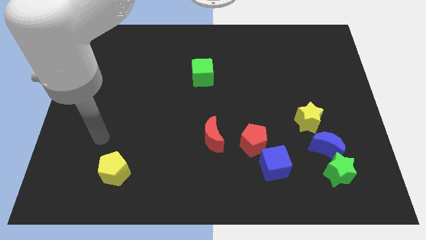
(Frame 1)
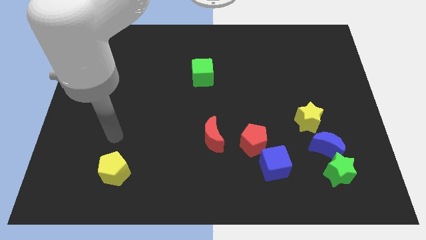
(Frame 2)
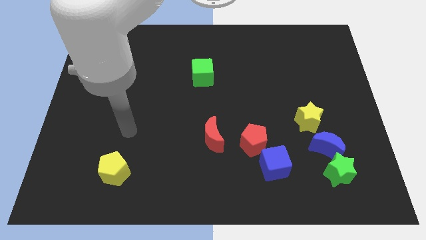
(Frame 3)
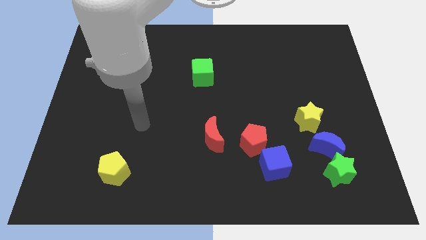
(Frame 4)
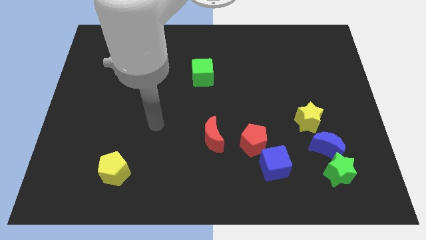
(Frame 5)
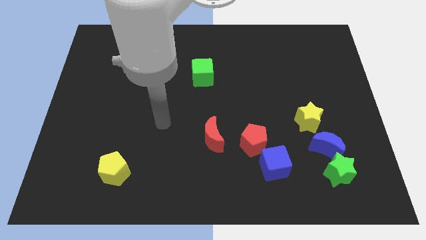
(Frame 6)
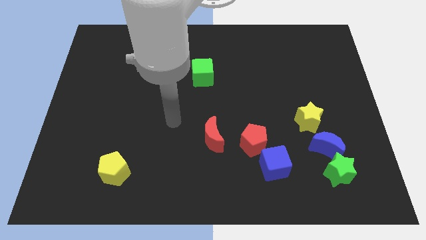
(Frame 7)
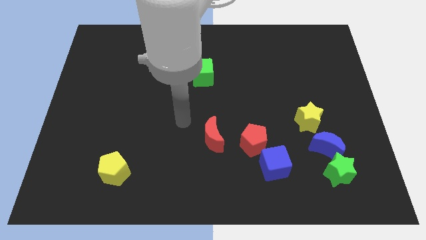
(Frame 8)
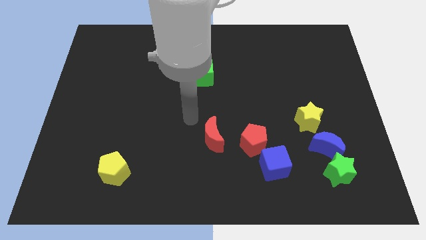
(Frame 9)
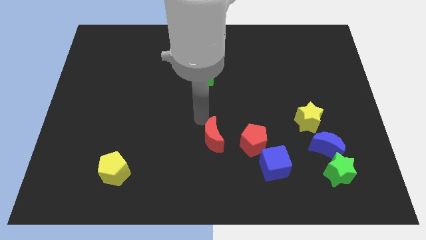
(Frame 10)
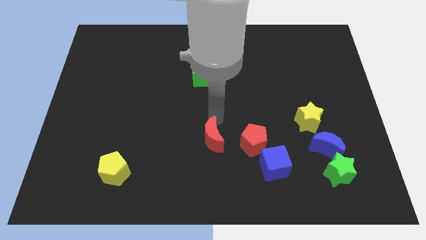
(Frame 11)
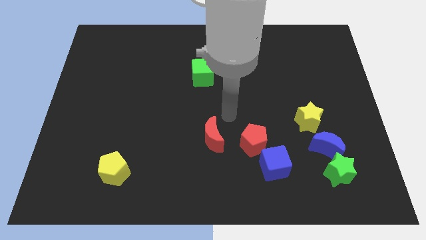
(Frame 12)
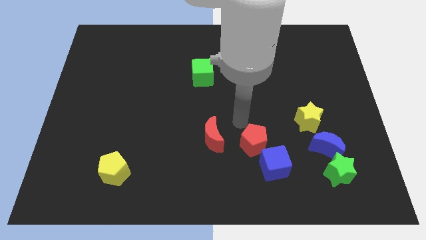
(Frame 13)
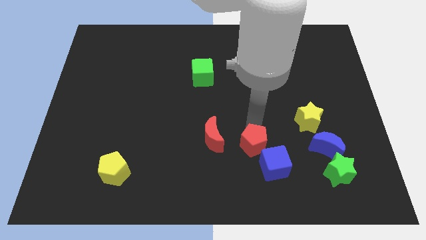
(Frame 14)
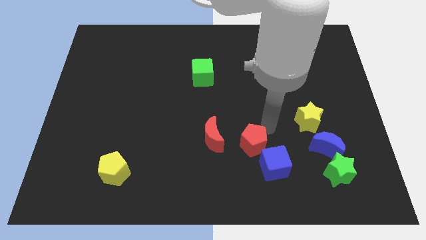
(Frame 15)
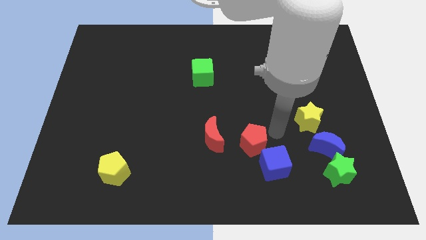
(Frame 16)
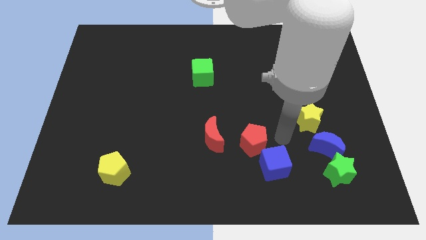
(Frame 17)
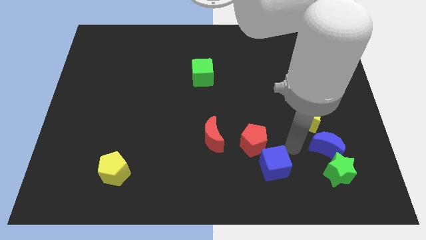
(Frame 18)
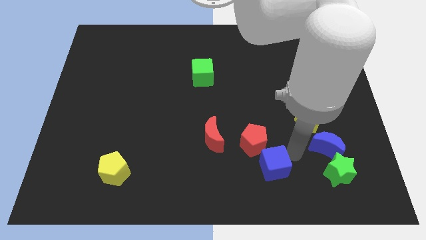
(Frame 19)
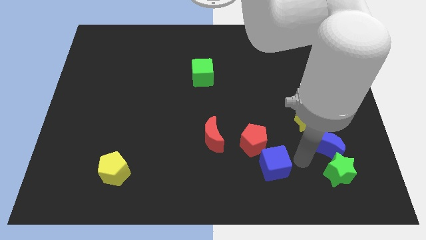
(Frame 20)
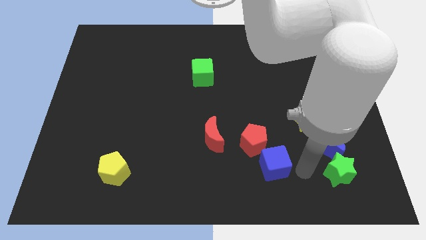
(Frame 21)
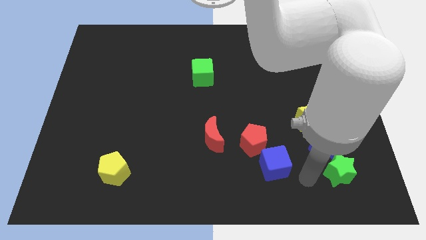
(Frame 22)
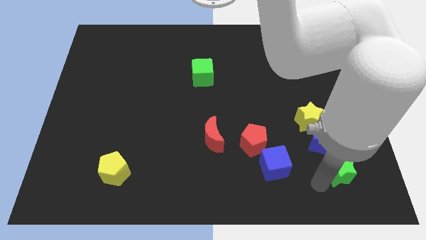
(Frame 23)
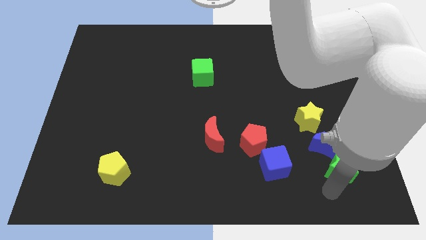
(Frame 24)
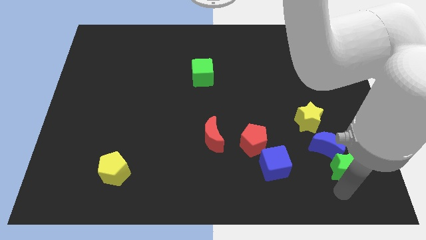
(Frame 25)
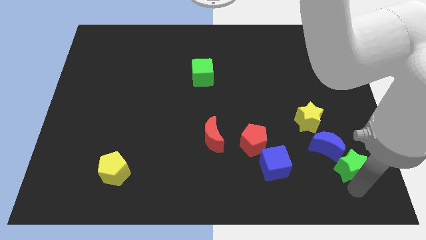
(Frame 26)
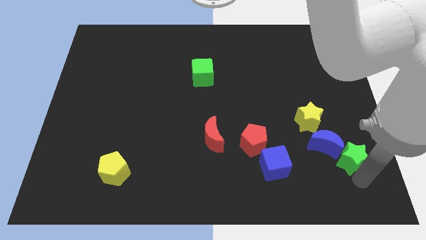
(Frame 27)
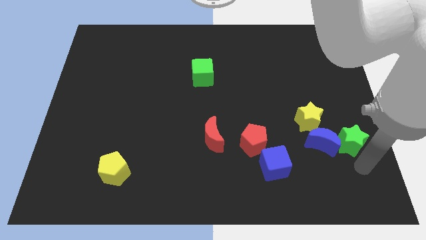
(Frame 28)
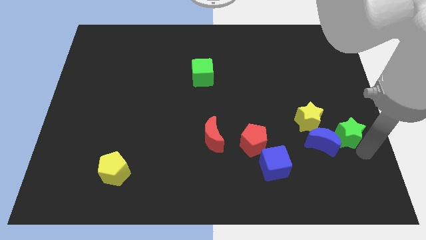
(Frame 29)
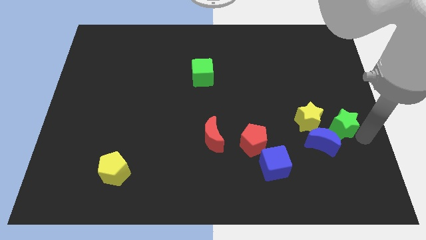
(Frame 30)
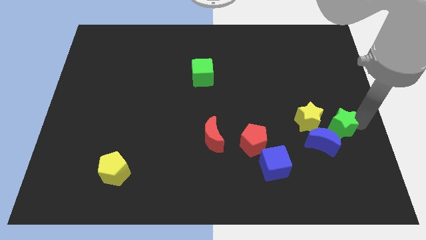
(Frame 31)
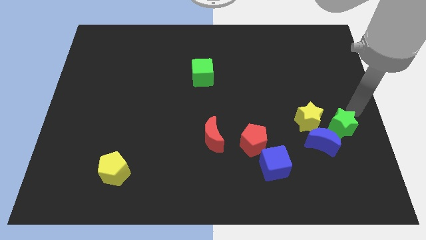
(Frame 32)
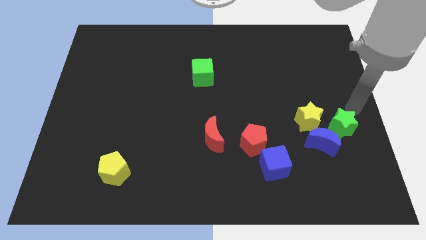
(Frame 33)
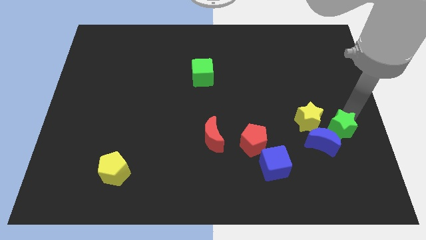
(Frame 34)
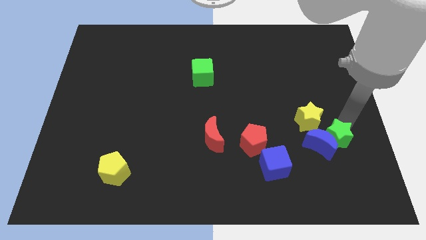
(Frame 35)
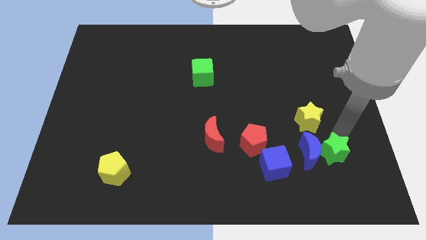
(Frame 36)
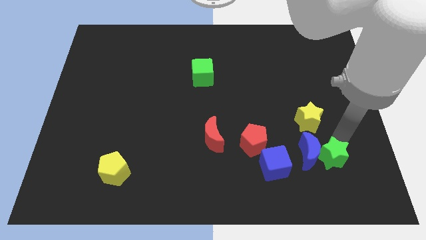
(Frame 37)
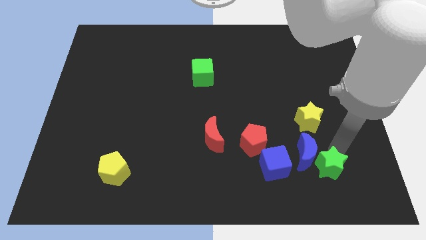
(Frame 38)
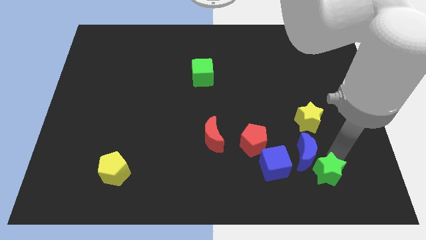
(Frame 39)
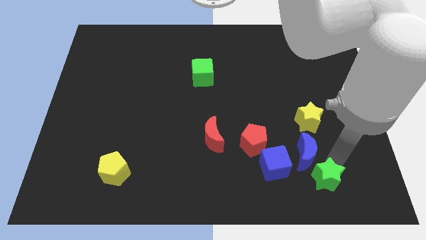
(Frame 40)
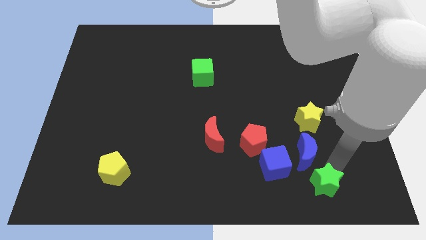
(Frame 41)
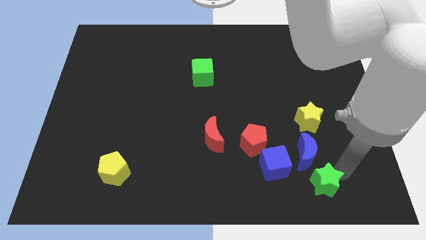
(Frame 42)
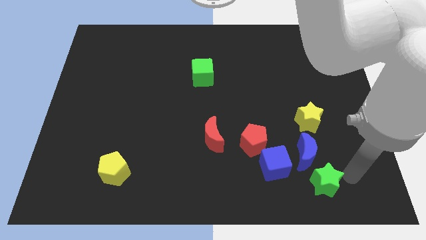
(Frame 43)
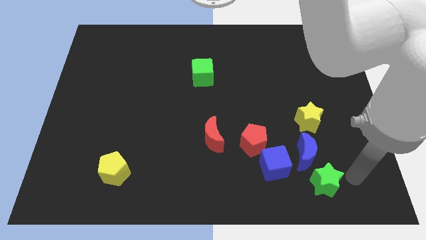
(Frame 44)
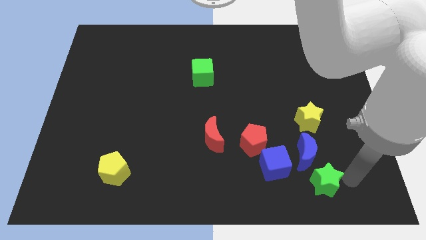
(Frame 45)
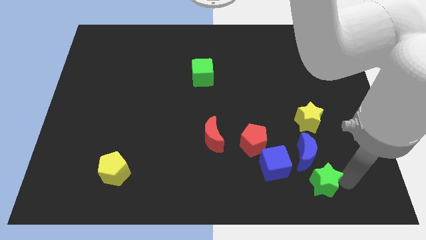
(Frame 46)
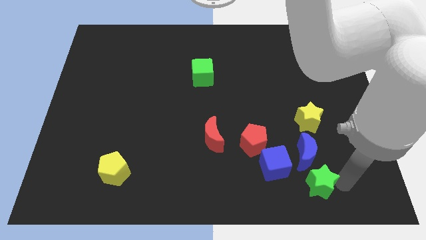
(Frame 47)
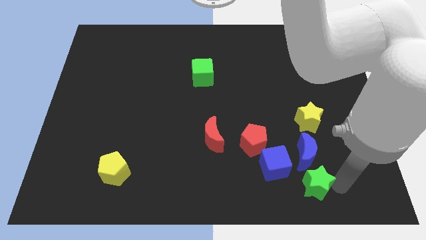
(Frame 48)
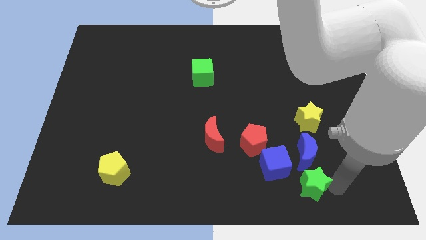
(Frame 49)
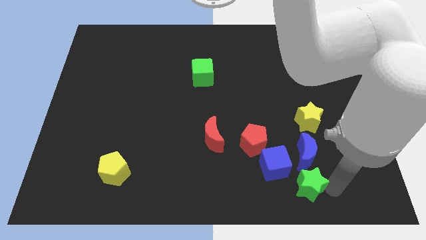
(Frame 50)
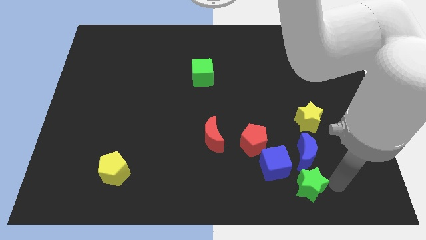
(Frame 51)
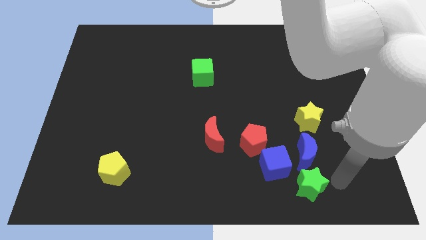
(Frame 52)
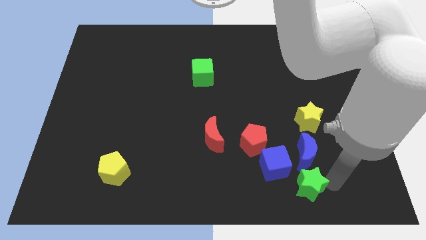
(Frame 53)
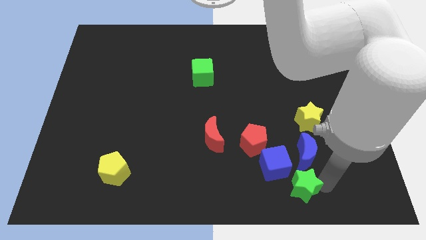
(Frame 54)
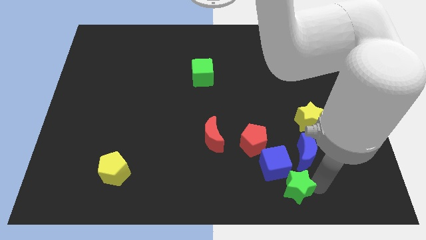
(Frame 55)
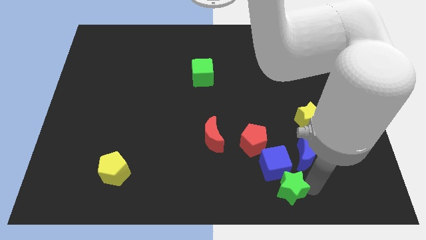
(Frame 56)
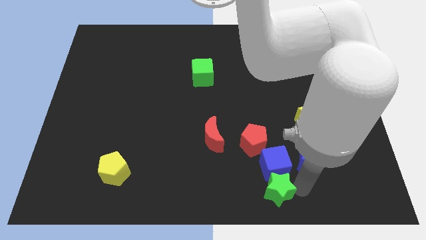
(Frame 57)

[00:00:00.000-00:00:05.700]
put the green star to the bottom

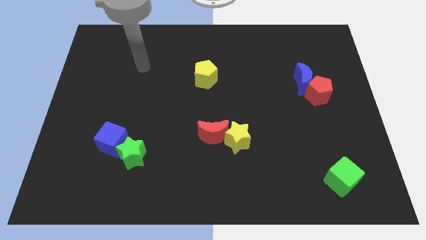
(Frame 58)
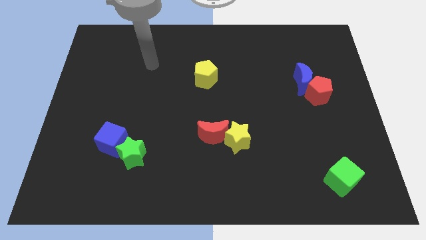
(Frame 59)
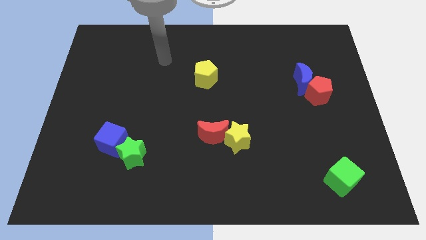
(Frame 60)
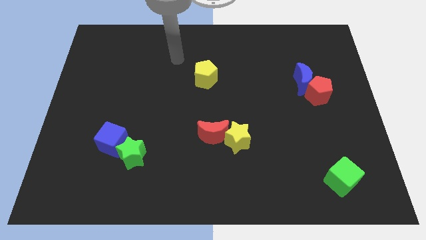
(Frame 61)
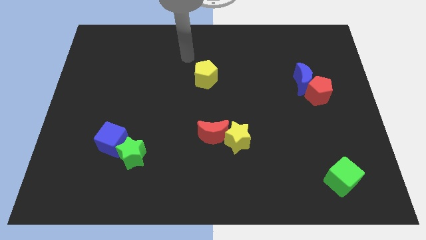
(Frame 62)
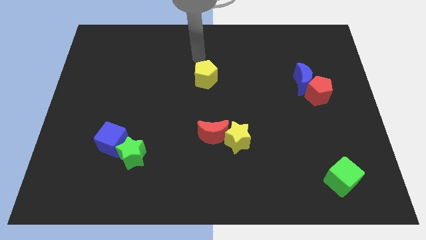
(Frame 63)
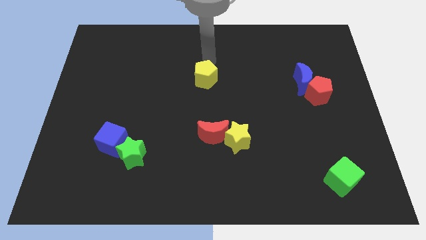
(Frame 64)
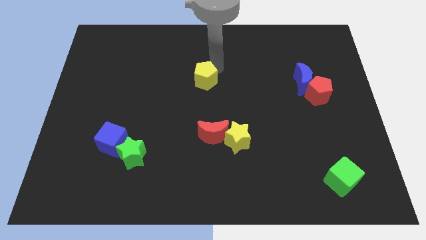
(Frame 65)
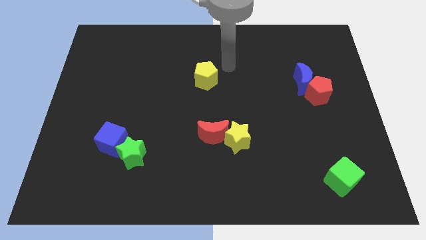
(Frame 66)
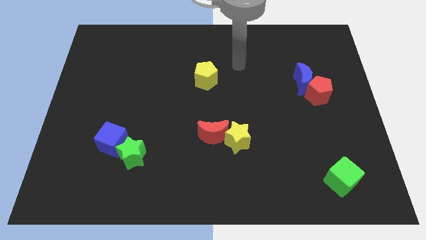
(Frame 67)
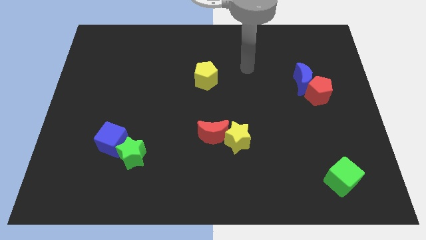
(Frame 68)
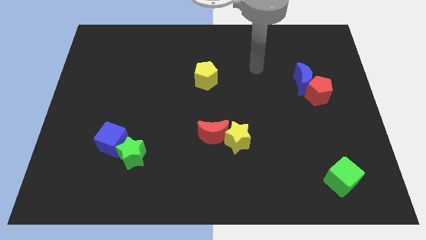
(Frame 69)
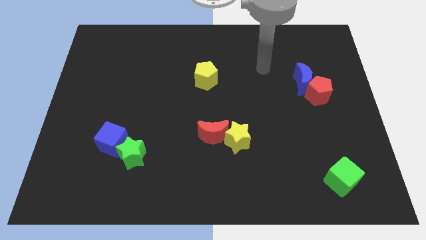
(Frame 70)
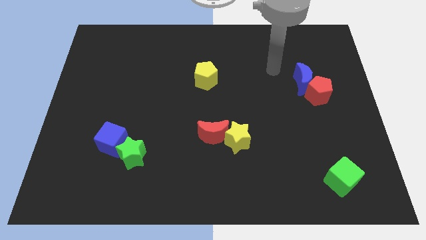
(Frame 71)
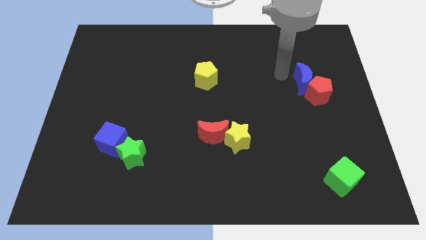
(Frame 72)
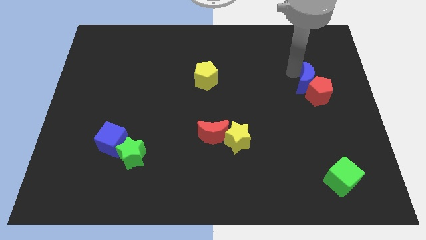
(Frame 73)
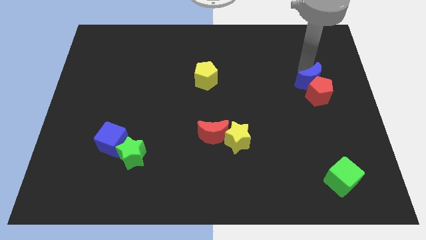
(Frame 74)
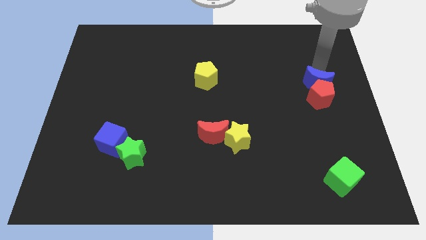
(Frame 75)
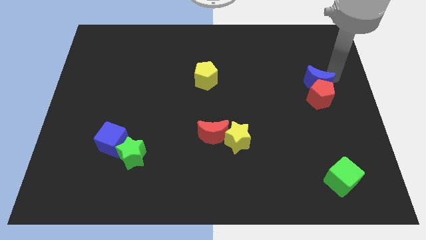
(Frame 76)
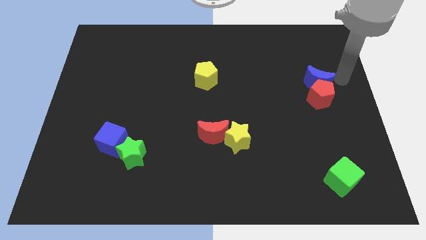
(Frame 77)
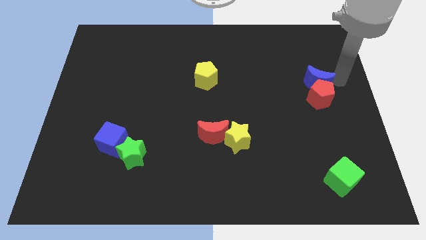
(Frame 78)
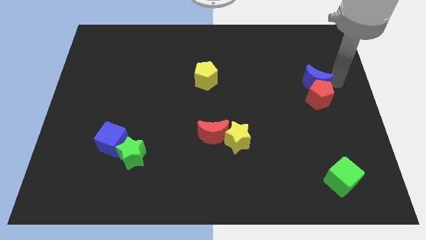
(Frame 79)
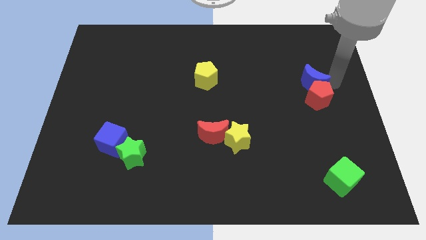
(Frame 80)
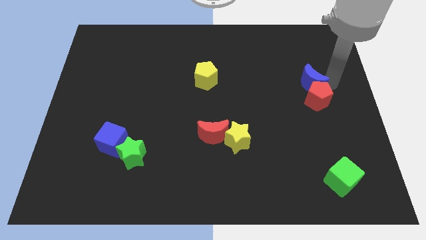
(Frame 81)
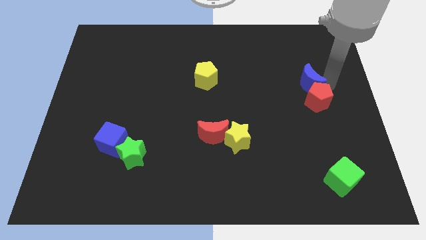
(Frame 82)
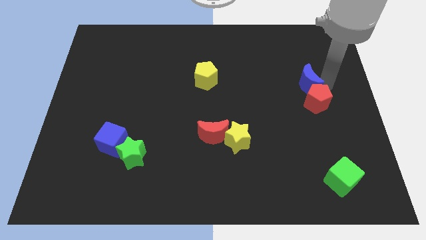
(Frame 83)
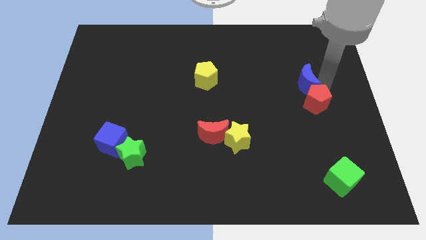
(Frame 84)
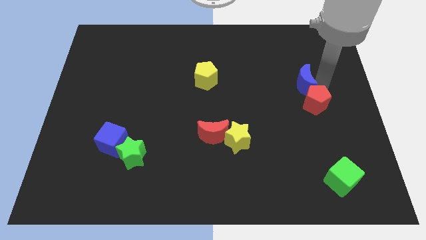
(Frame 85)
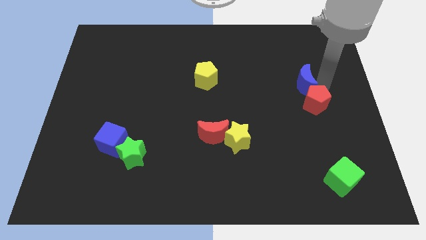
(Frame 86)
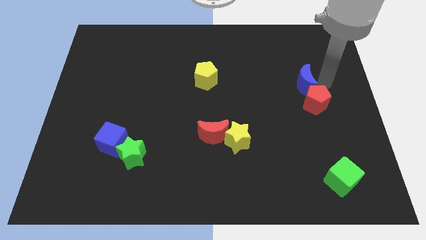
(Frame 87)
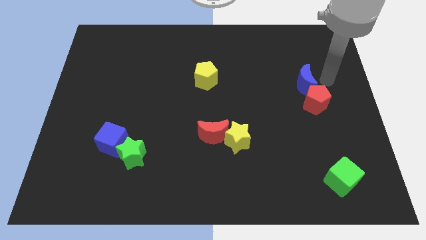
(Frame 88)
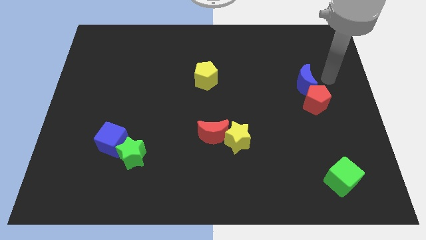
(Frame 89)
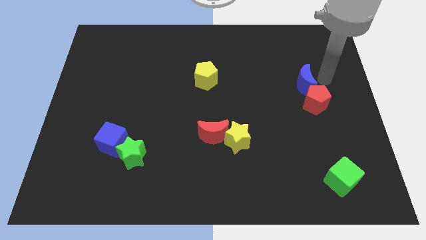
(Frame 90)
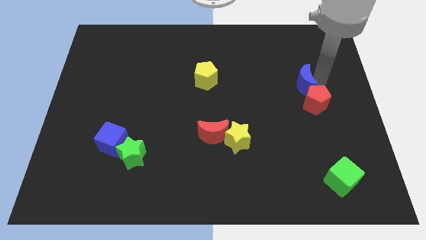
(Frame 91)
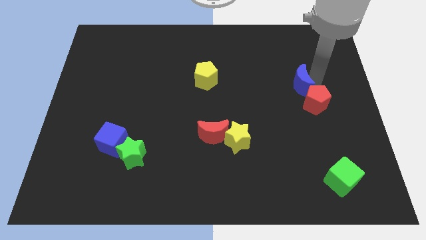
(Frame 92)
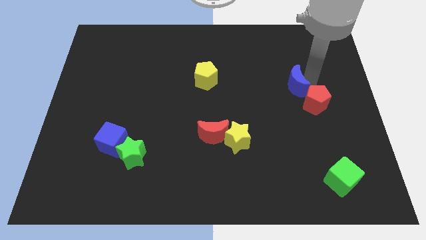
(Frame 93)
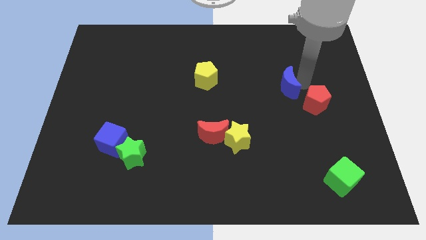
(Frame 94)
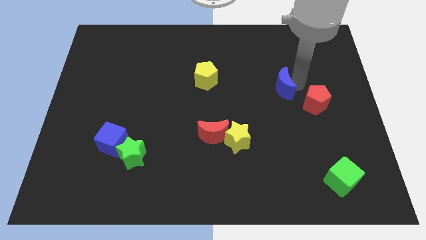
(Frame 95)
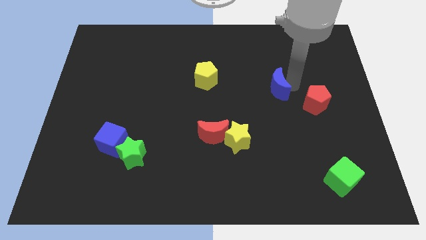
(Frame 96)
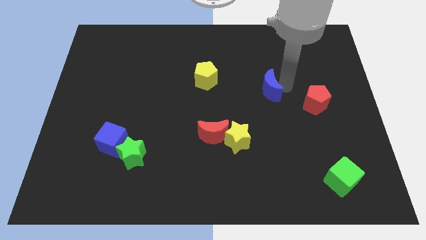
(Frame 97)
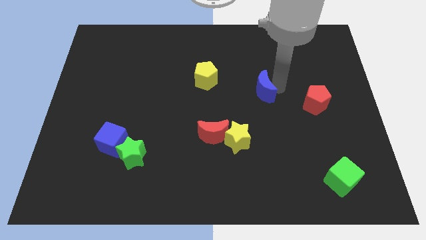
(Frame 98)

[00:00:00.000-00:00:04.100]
move the blue moon to the center of the board
